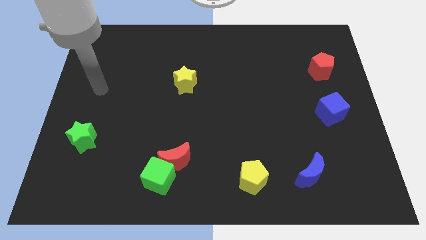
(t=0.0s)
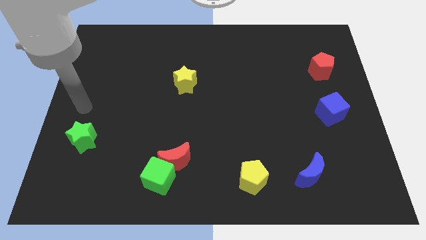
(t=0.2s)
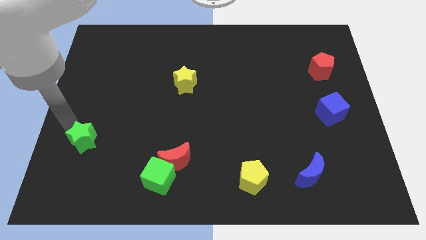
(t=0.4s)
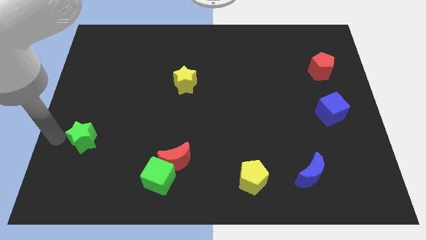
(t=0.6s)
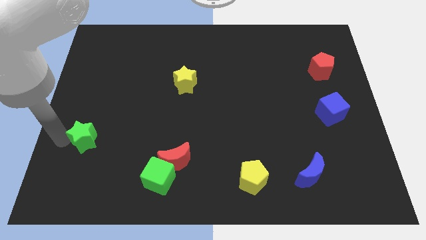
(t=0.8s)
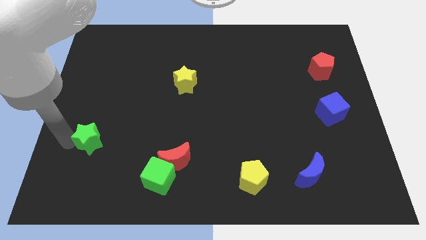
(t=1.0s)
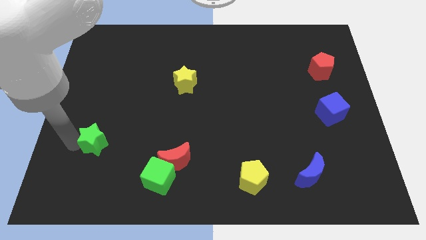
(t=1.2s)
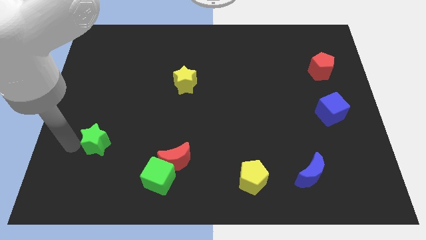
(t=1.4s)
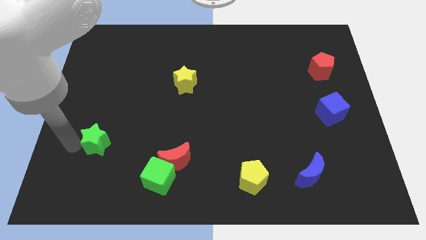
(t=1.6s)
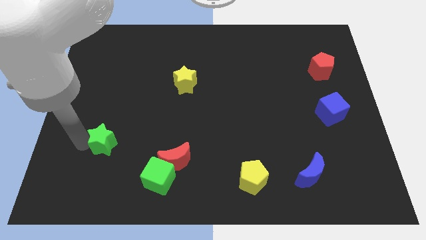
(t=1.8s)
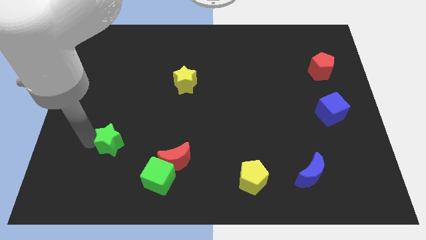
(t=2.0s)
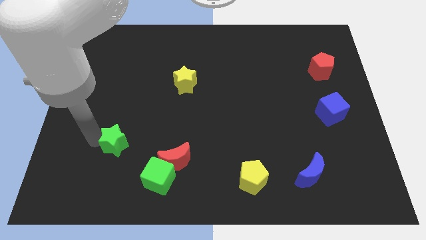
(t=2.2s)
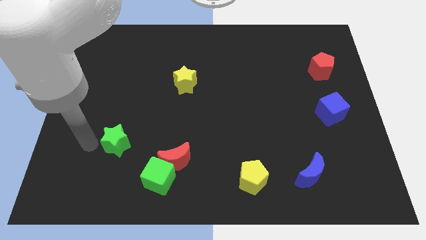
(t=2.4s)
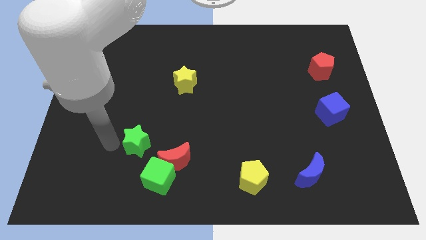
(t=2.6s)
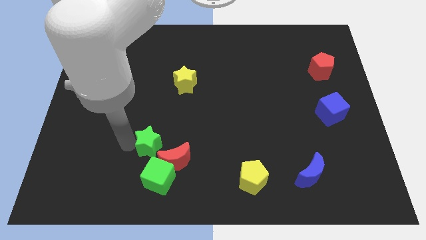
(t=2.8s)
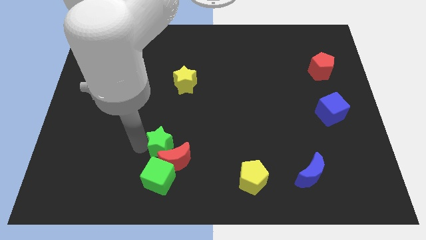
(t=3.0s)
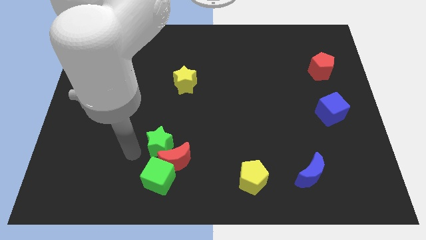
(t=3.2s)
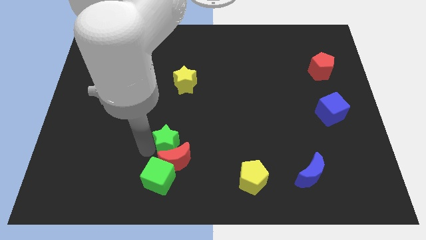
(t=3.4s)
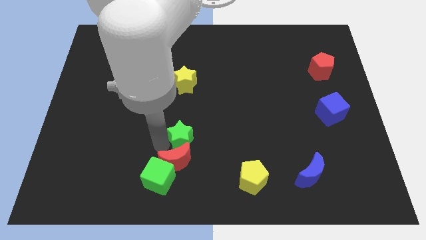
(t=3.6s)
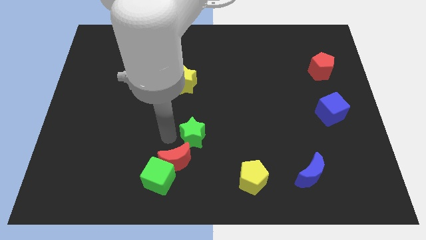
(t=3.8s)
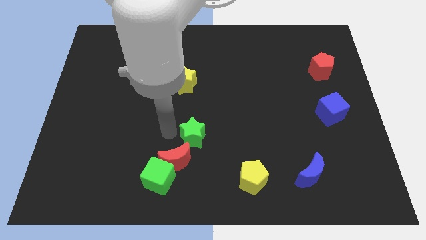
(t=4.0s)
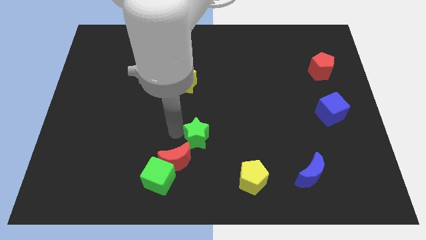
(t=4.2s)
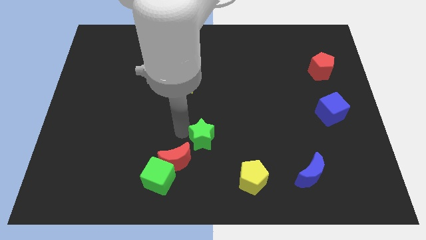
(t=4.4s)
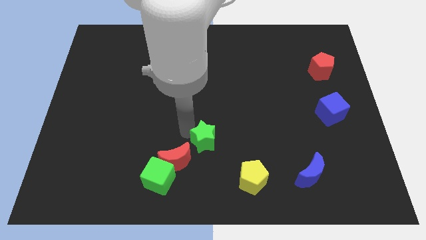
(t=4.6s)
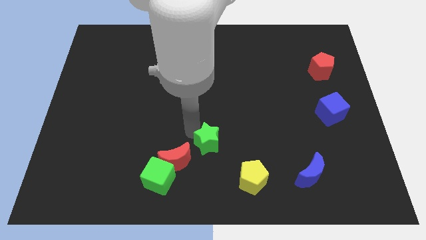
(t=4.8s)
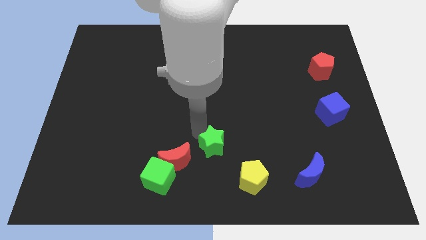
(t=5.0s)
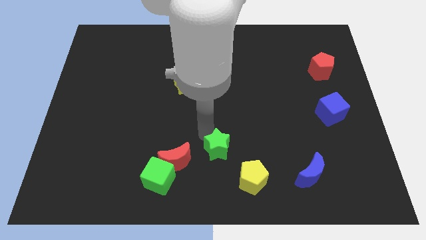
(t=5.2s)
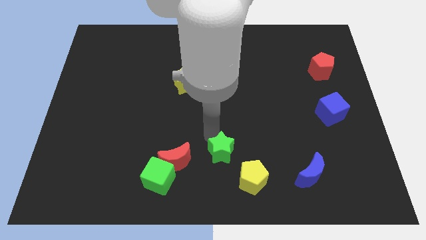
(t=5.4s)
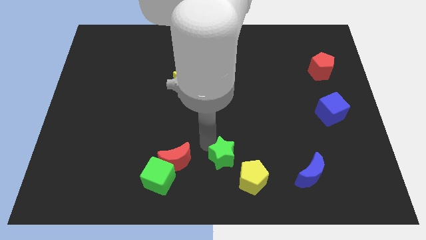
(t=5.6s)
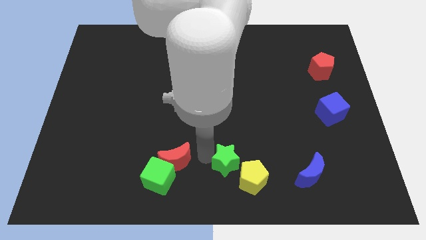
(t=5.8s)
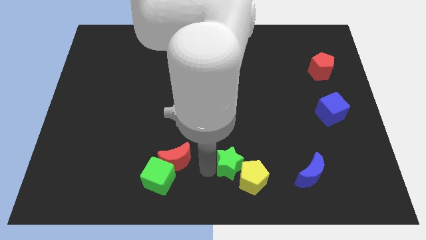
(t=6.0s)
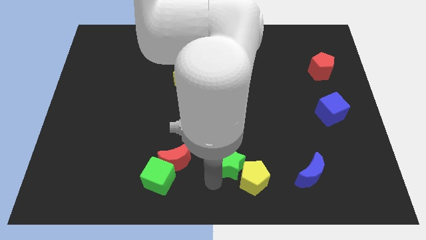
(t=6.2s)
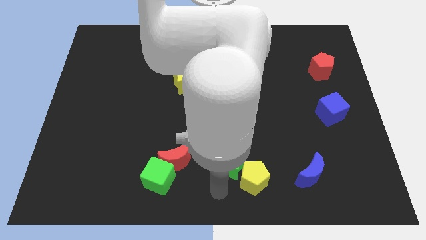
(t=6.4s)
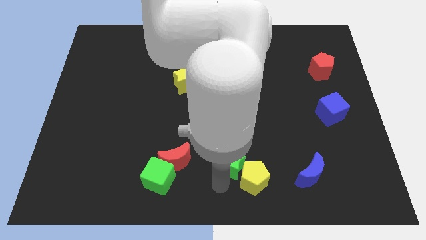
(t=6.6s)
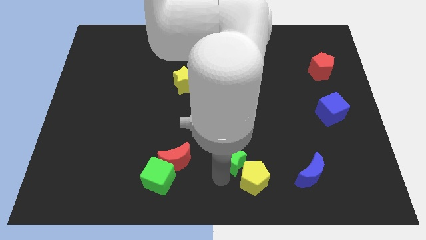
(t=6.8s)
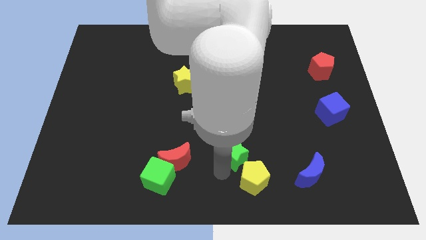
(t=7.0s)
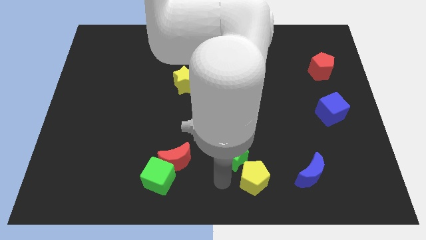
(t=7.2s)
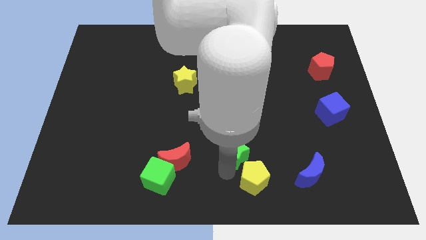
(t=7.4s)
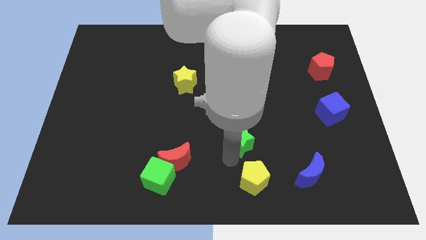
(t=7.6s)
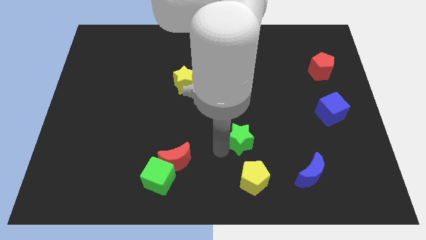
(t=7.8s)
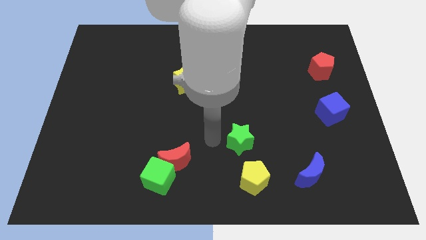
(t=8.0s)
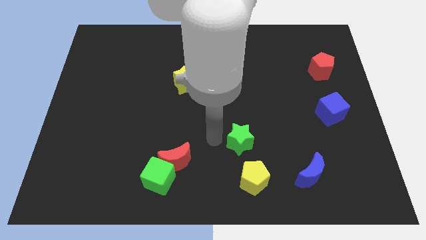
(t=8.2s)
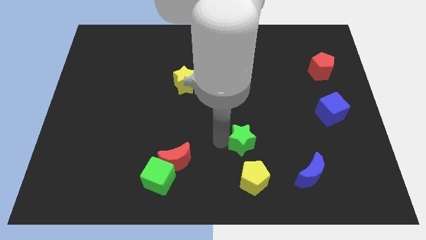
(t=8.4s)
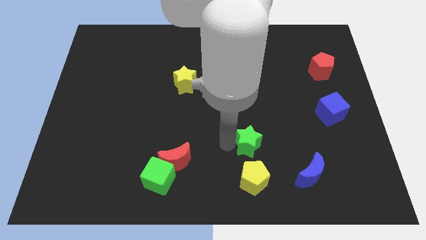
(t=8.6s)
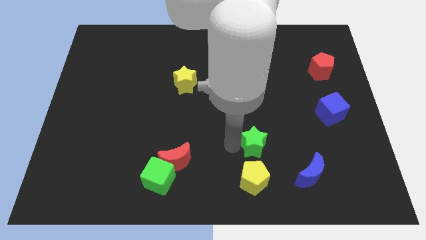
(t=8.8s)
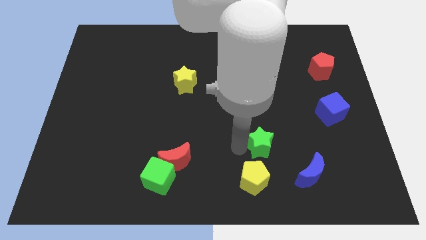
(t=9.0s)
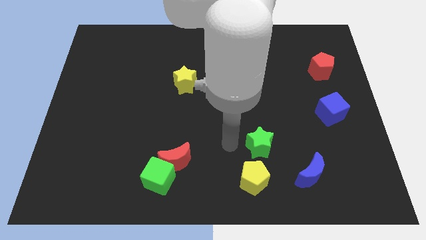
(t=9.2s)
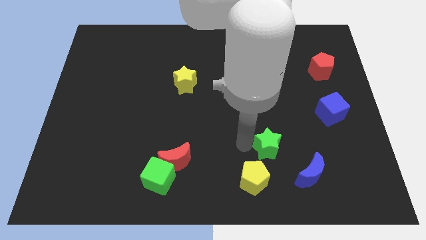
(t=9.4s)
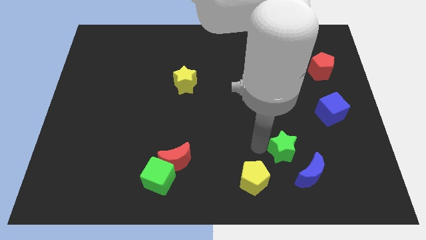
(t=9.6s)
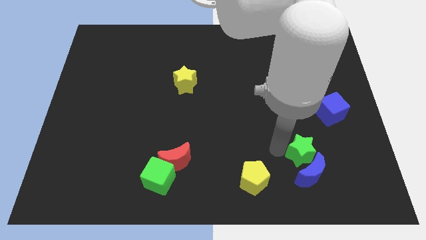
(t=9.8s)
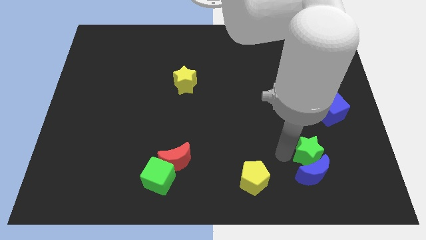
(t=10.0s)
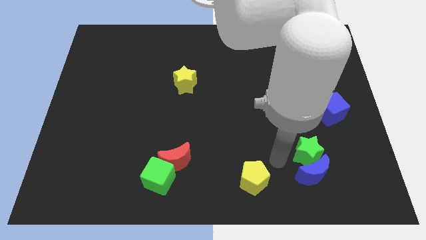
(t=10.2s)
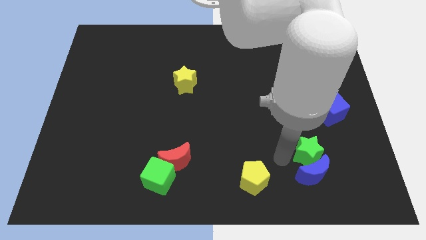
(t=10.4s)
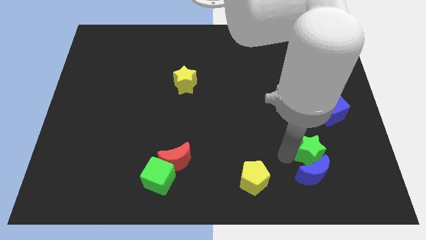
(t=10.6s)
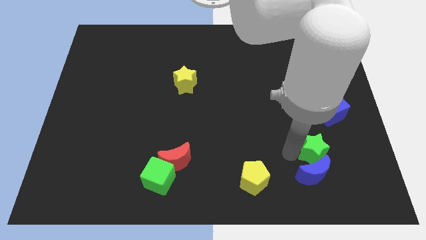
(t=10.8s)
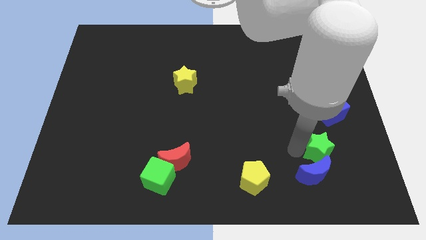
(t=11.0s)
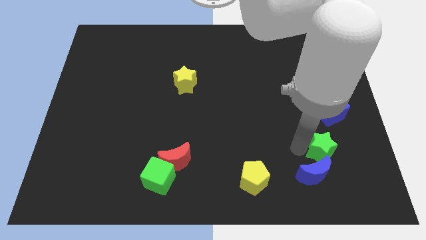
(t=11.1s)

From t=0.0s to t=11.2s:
move the green star to the bottom of the blue cube

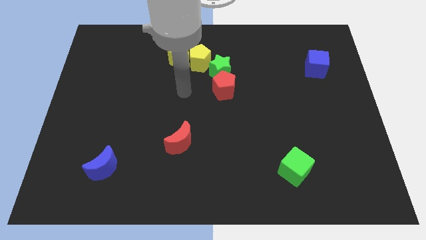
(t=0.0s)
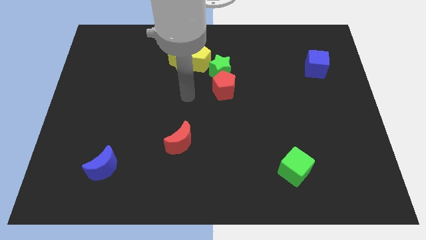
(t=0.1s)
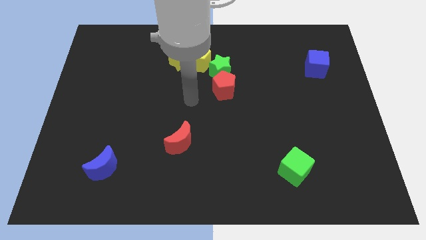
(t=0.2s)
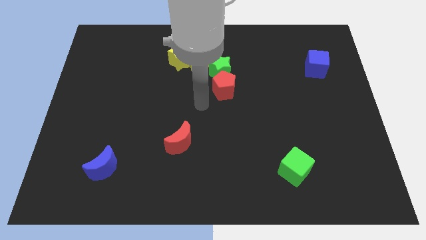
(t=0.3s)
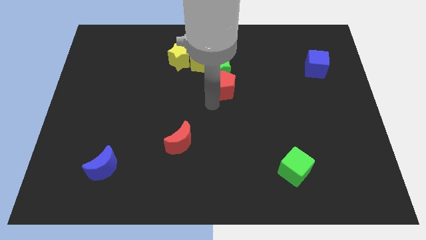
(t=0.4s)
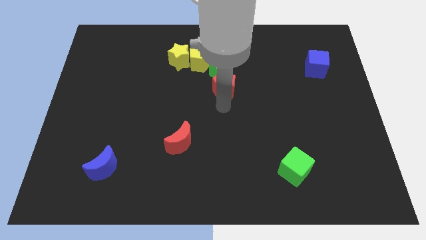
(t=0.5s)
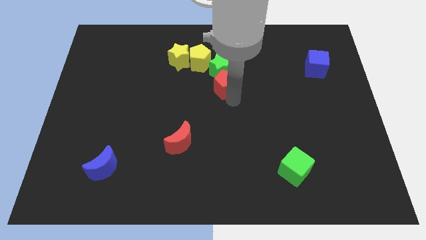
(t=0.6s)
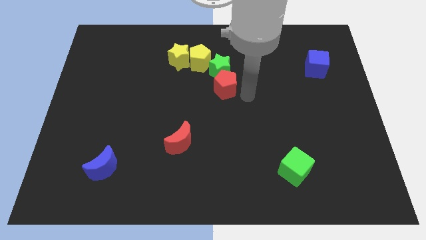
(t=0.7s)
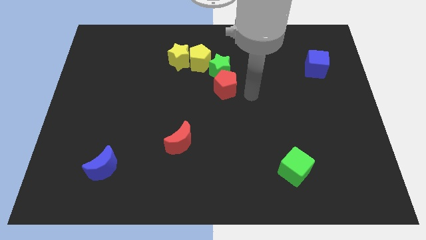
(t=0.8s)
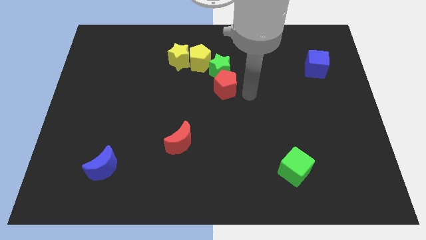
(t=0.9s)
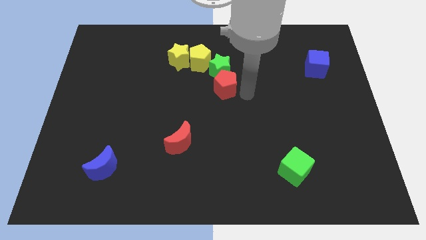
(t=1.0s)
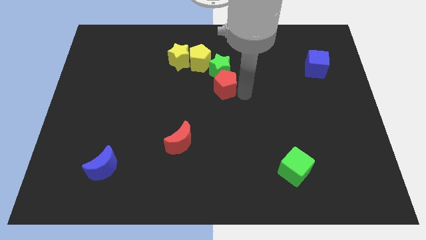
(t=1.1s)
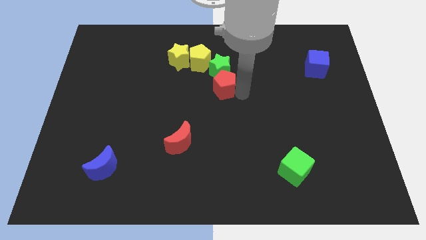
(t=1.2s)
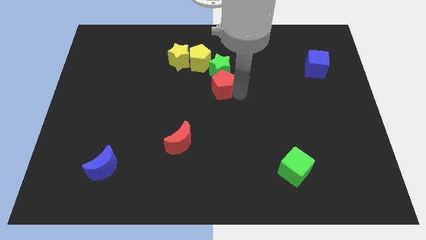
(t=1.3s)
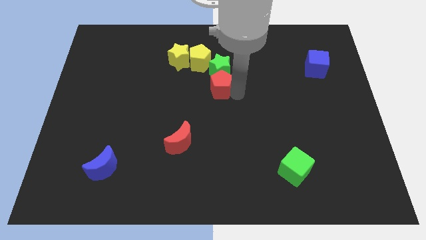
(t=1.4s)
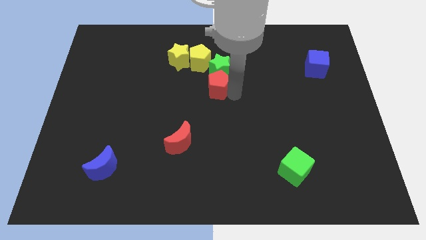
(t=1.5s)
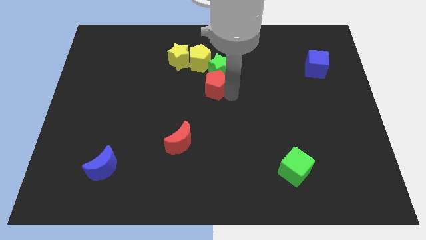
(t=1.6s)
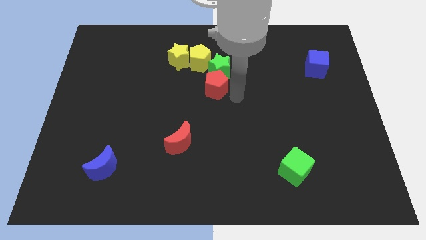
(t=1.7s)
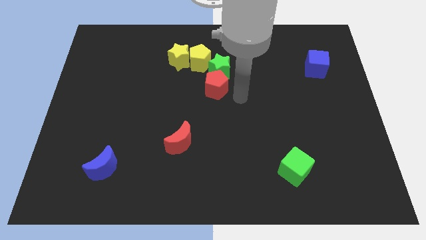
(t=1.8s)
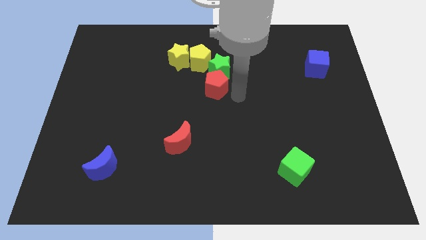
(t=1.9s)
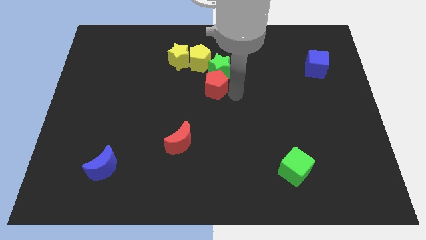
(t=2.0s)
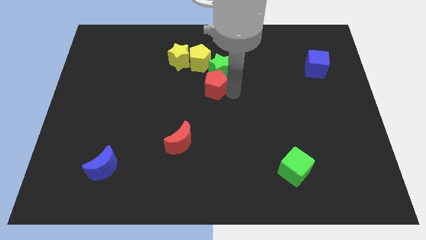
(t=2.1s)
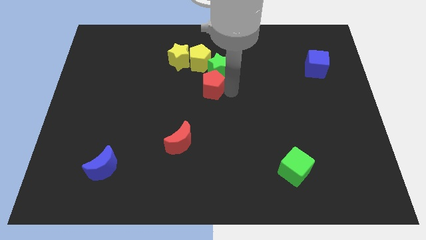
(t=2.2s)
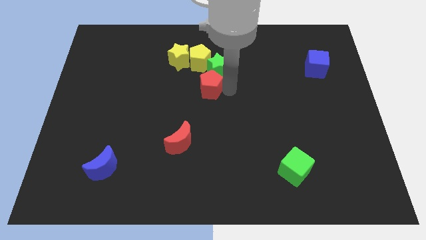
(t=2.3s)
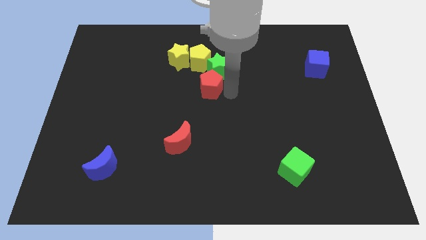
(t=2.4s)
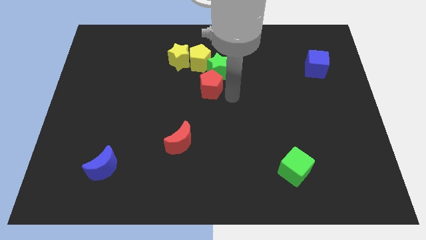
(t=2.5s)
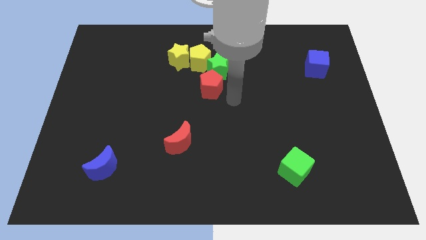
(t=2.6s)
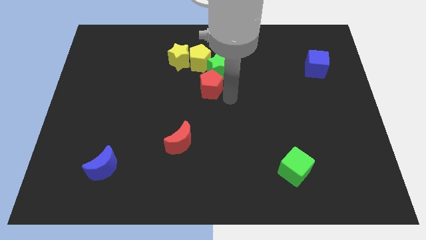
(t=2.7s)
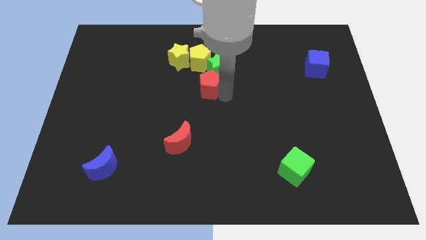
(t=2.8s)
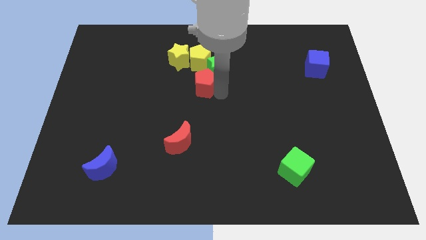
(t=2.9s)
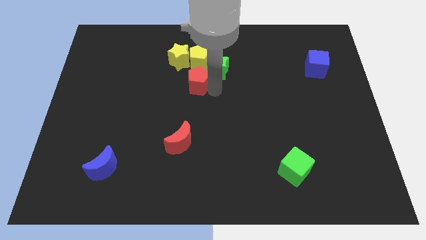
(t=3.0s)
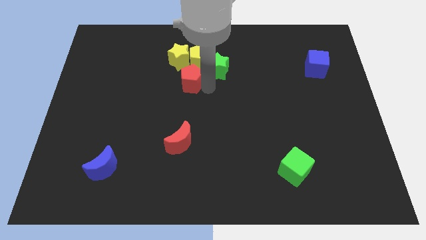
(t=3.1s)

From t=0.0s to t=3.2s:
slide the red pentagon to the bottom left of the yellow pentagon
